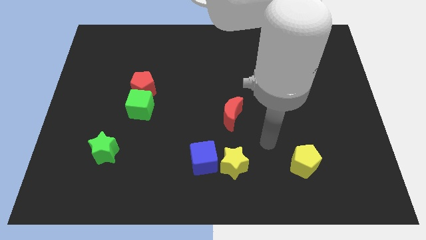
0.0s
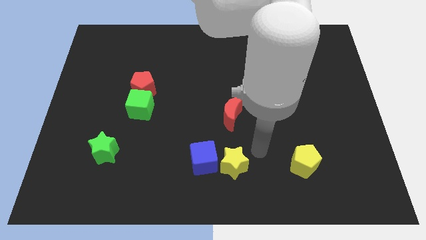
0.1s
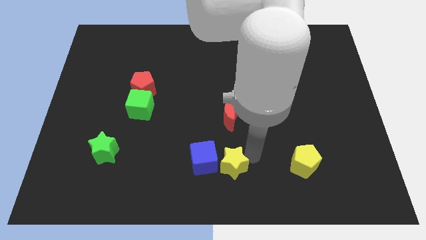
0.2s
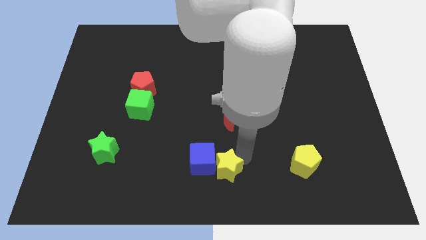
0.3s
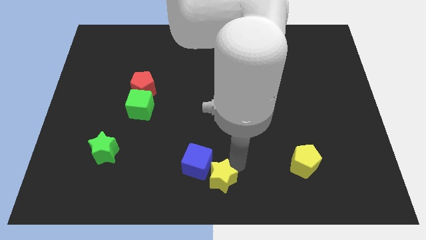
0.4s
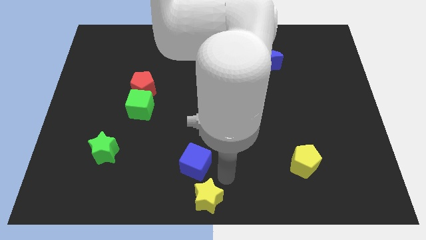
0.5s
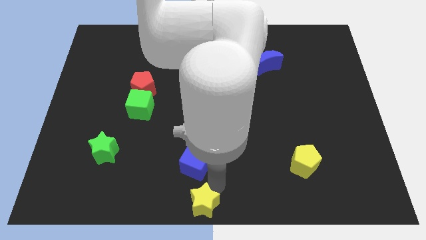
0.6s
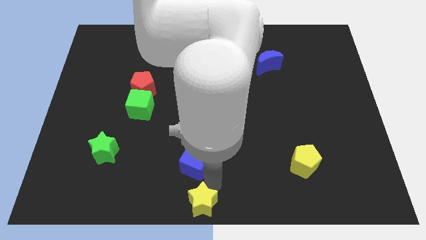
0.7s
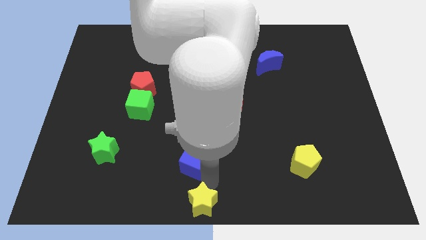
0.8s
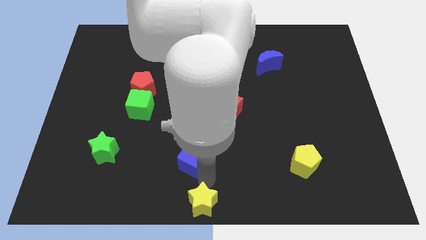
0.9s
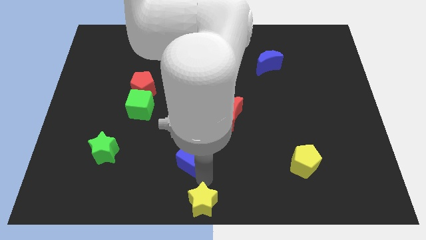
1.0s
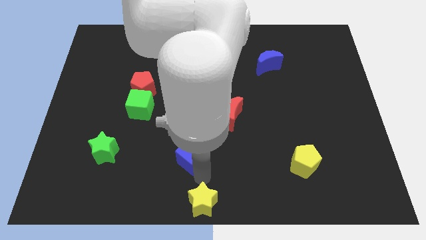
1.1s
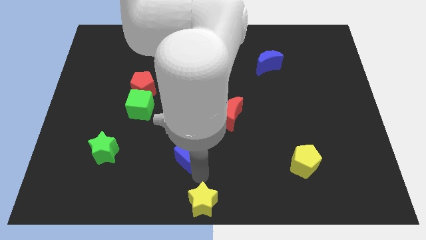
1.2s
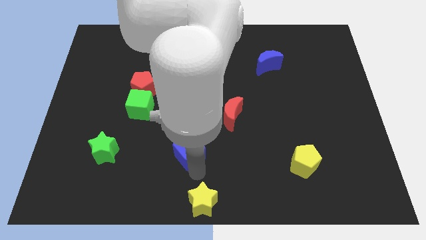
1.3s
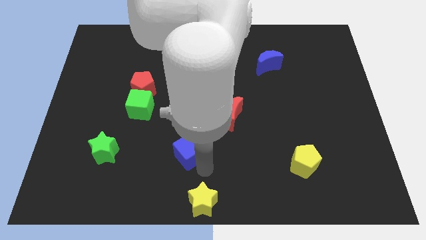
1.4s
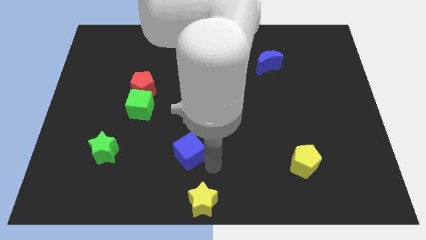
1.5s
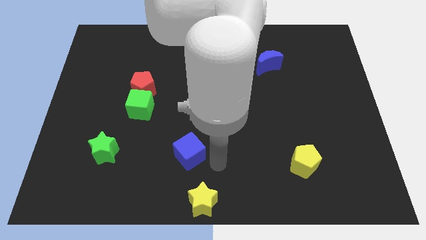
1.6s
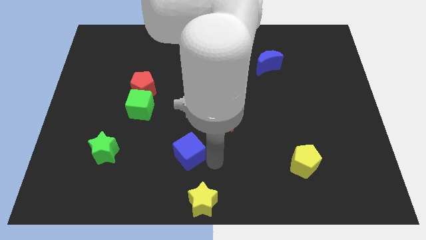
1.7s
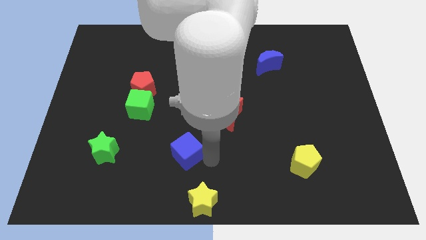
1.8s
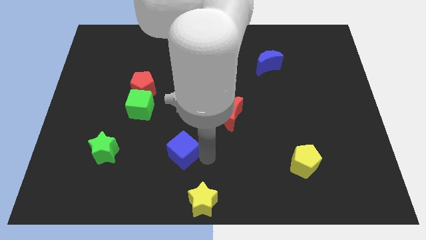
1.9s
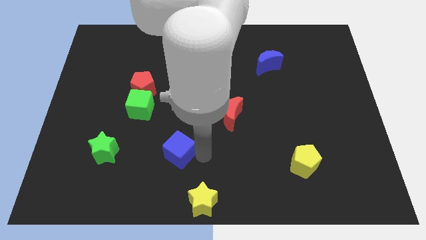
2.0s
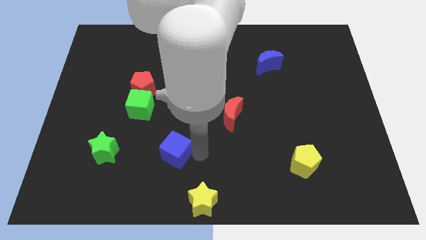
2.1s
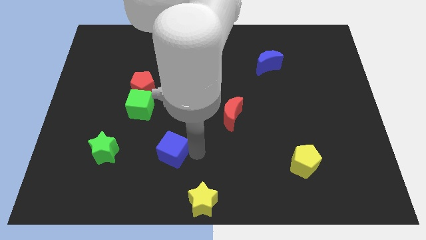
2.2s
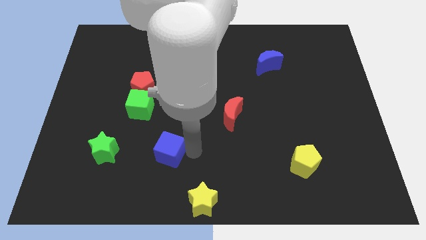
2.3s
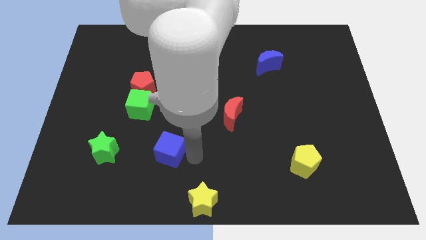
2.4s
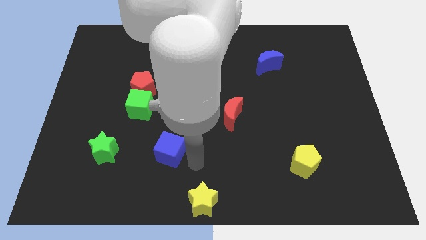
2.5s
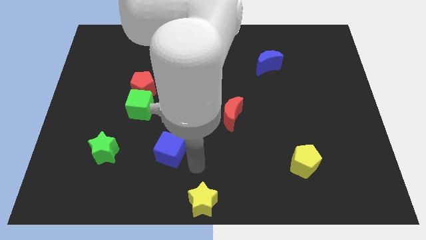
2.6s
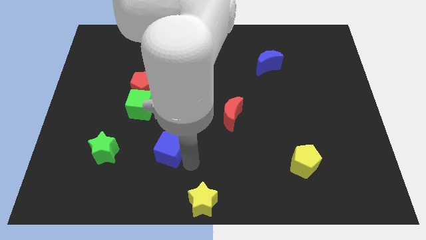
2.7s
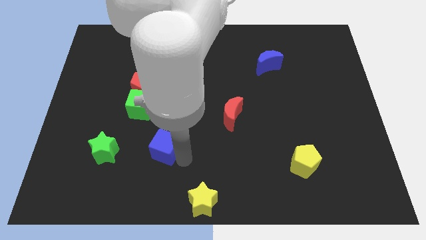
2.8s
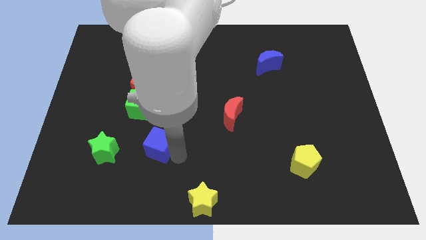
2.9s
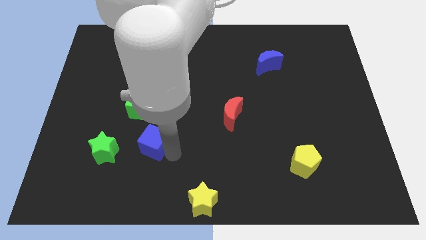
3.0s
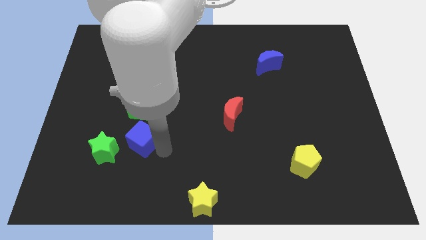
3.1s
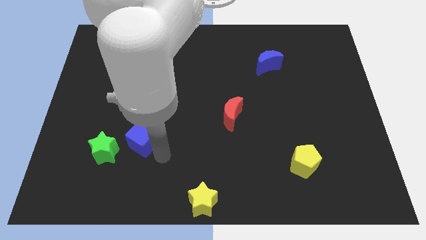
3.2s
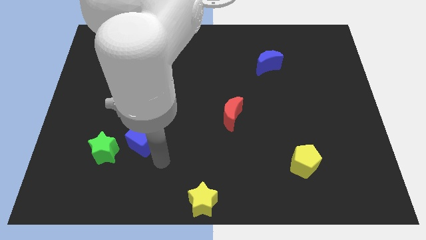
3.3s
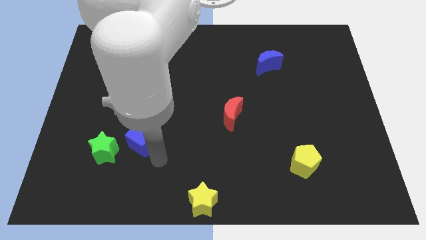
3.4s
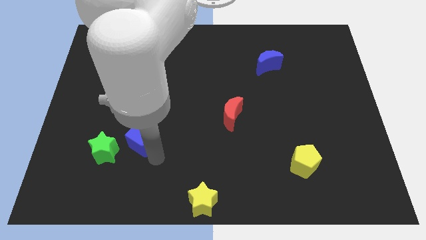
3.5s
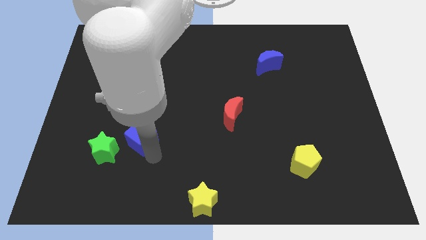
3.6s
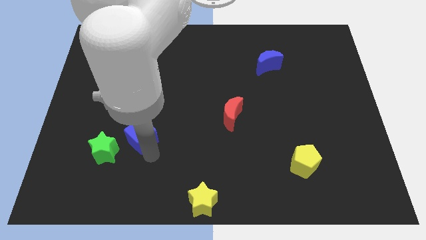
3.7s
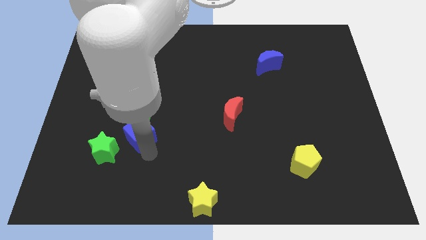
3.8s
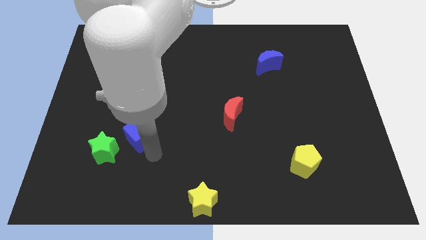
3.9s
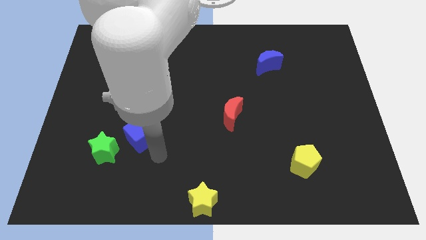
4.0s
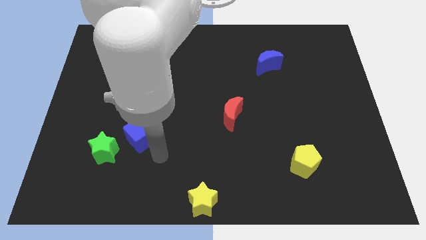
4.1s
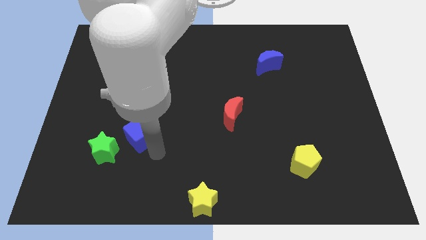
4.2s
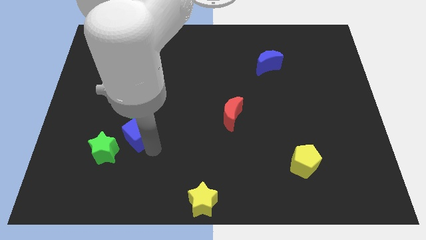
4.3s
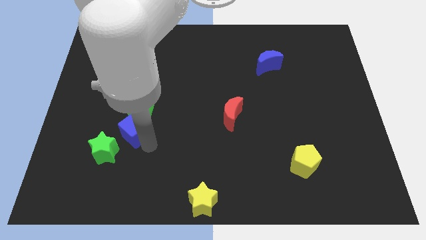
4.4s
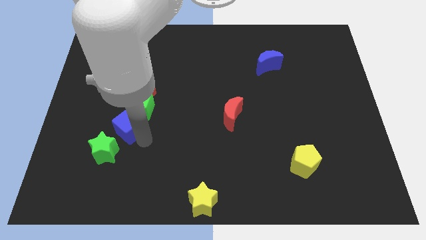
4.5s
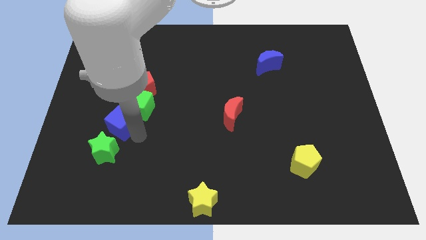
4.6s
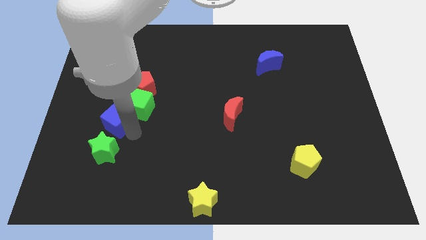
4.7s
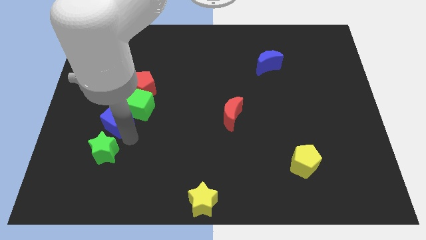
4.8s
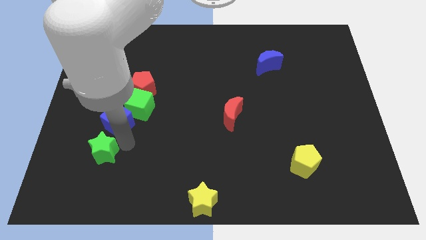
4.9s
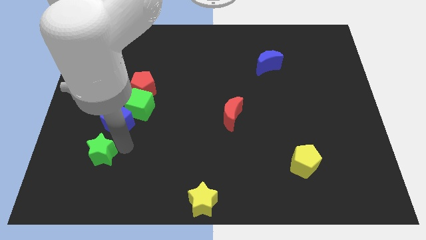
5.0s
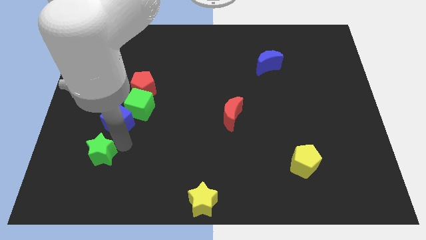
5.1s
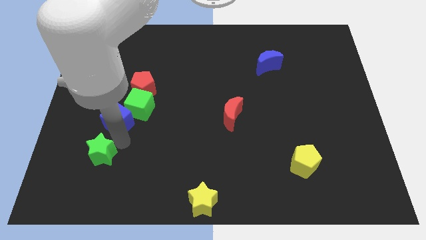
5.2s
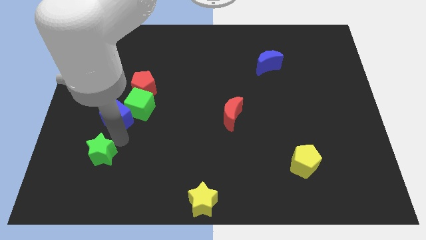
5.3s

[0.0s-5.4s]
push the blue cube up and to the left diagonally

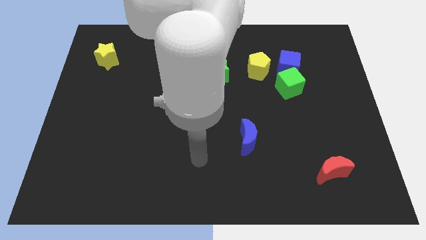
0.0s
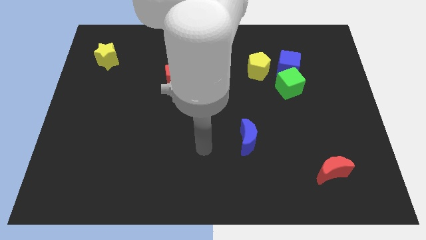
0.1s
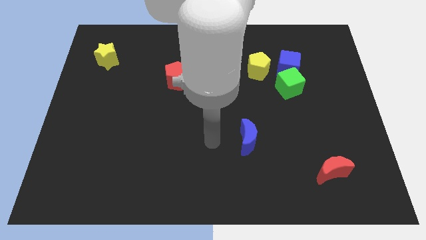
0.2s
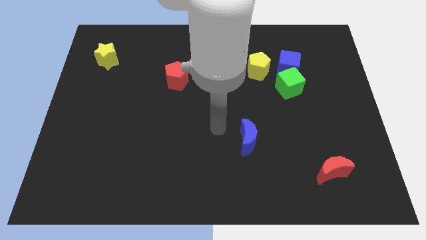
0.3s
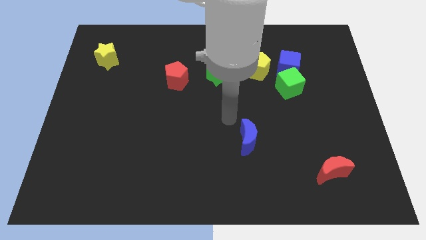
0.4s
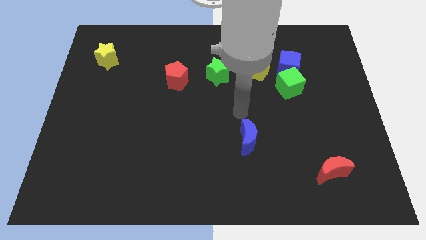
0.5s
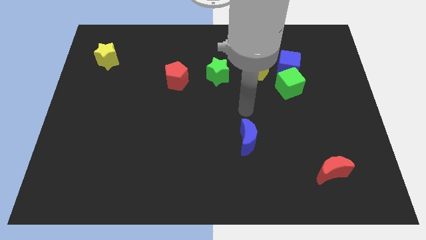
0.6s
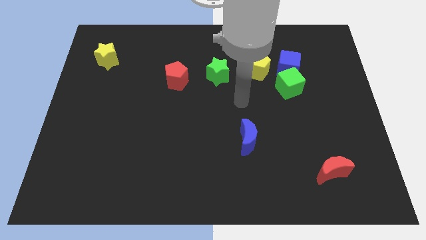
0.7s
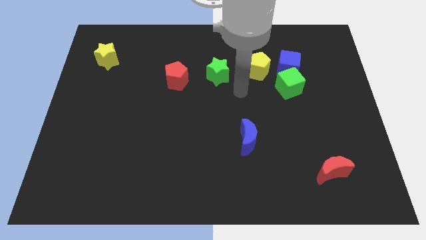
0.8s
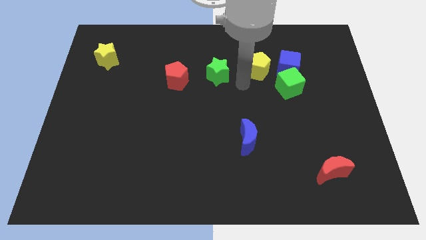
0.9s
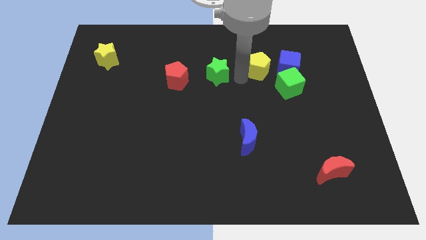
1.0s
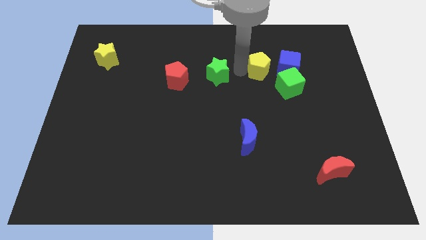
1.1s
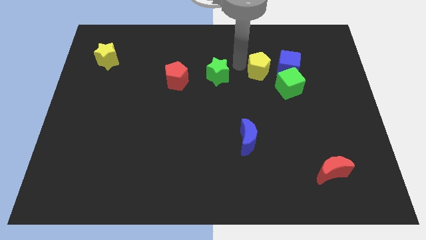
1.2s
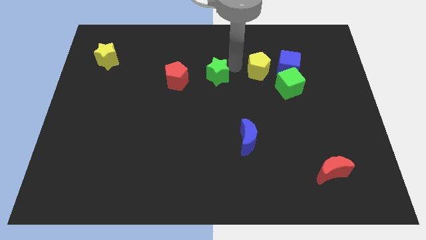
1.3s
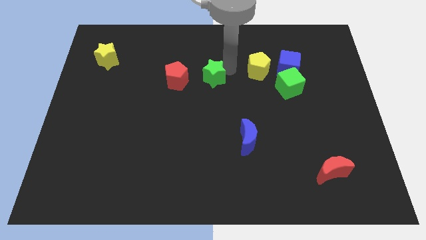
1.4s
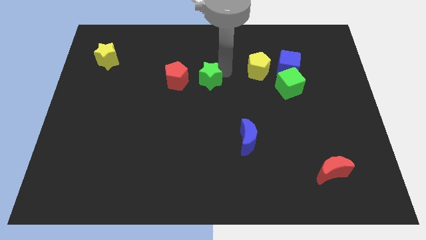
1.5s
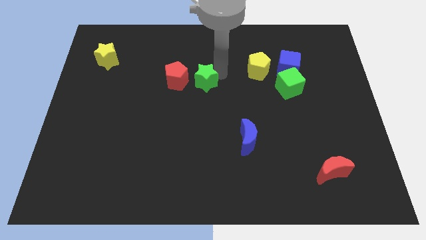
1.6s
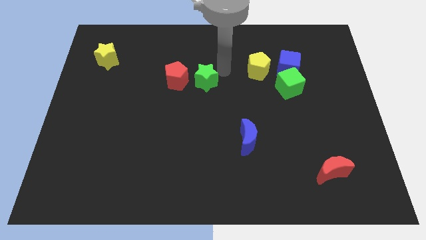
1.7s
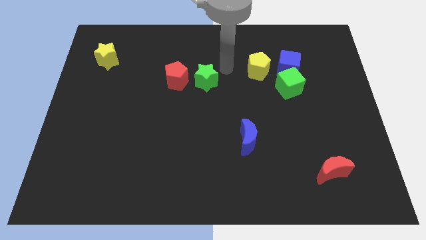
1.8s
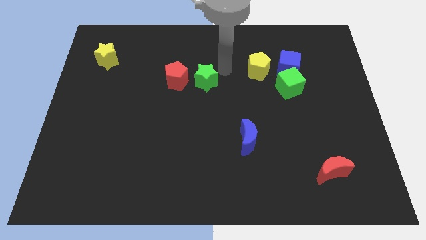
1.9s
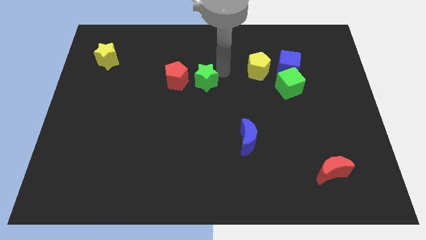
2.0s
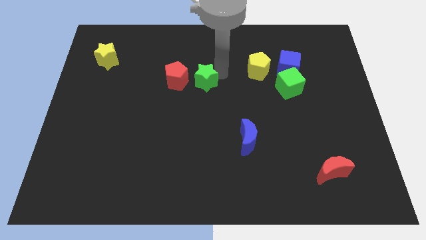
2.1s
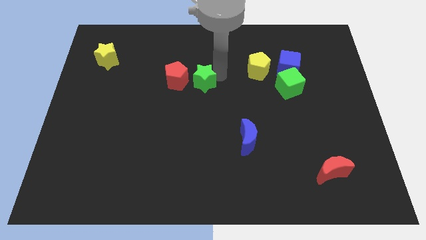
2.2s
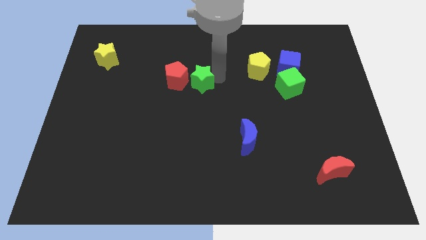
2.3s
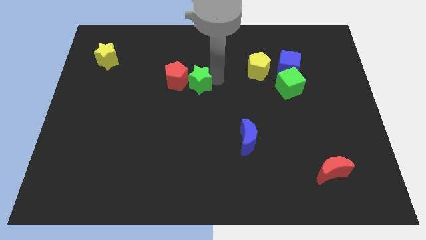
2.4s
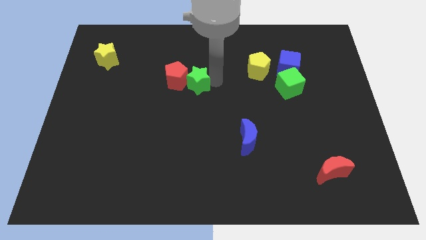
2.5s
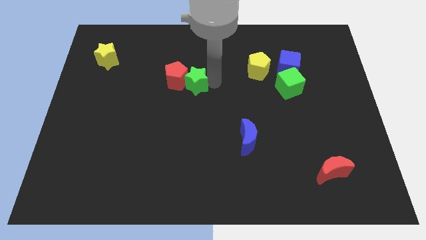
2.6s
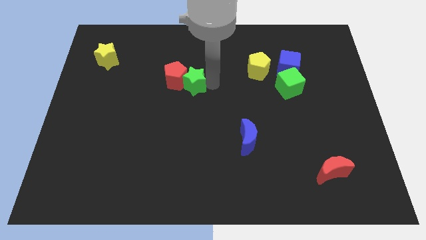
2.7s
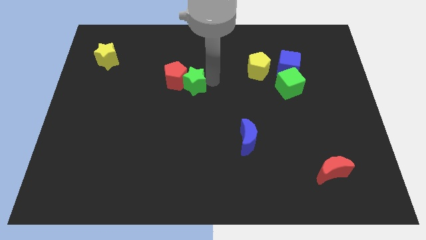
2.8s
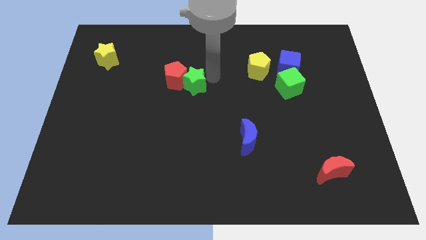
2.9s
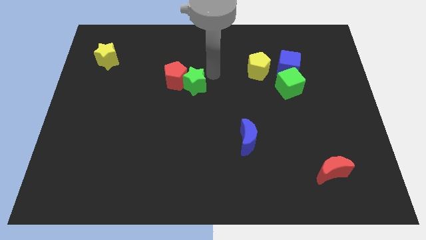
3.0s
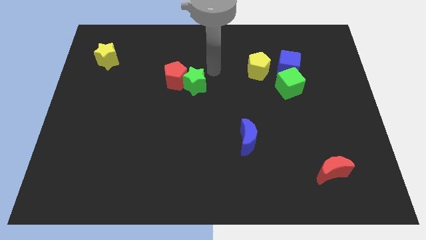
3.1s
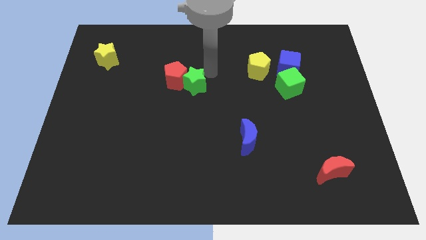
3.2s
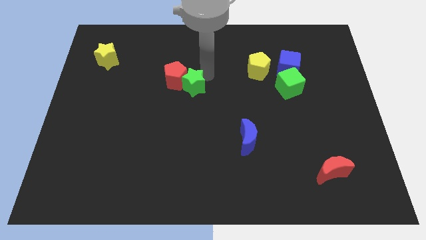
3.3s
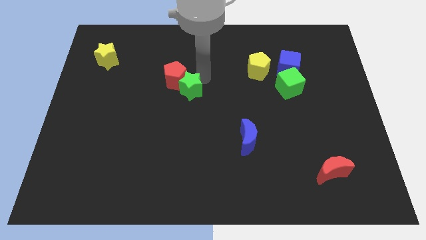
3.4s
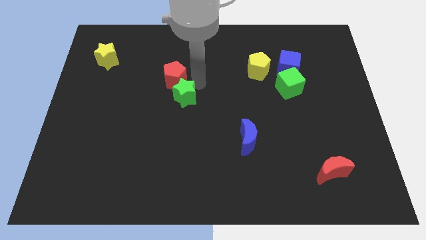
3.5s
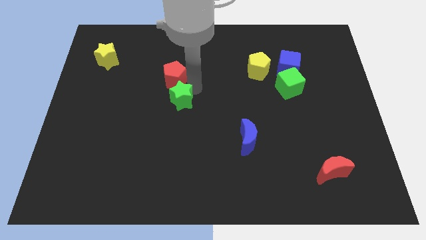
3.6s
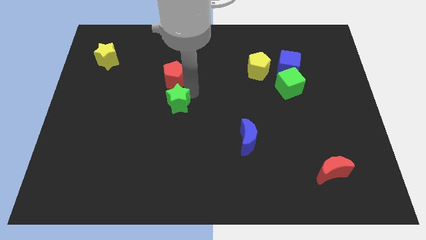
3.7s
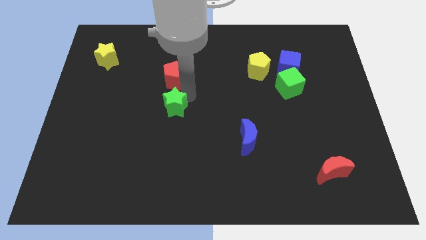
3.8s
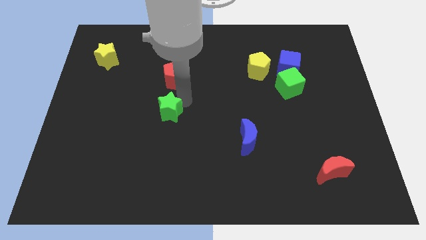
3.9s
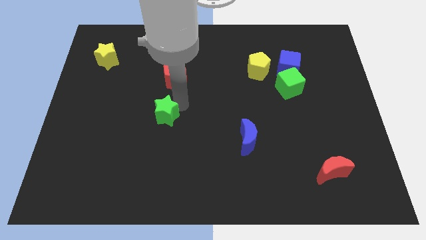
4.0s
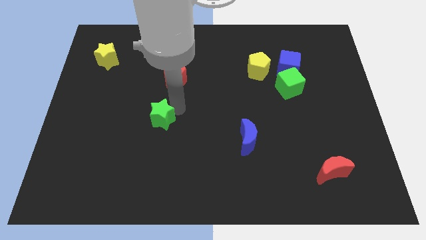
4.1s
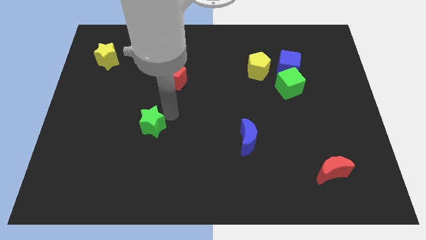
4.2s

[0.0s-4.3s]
move the green star downwards and left diagonally
